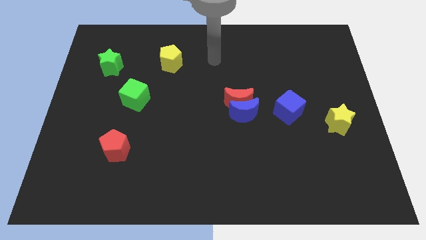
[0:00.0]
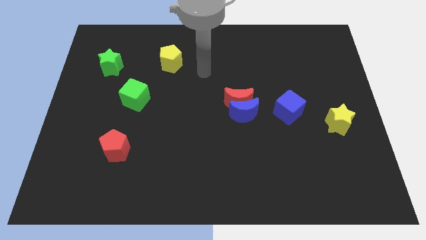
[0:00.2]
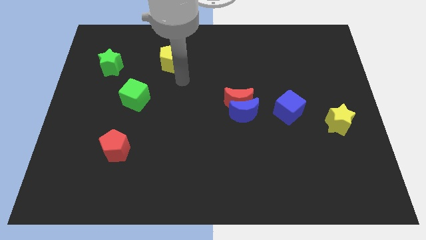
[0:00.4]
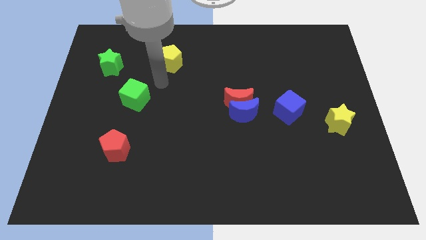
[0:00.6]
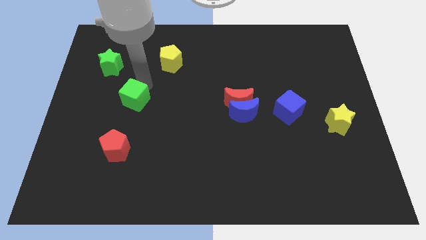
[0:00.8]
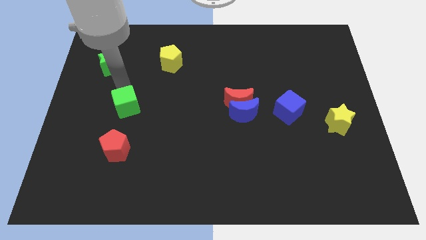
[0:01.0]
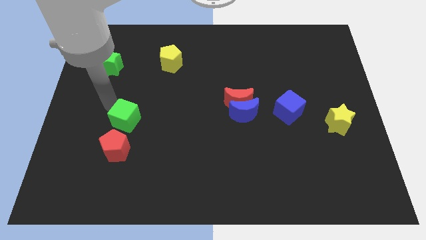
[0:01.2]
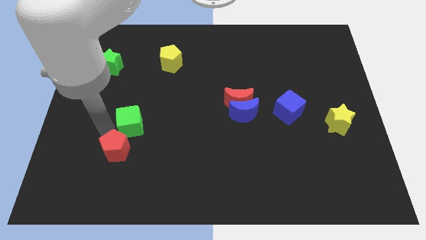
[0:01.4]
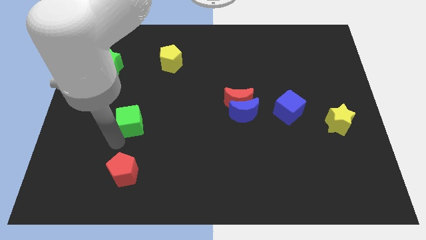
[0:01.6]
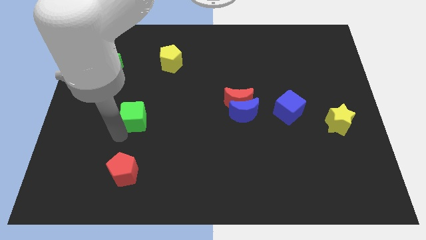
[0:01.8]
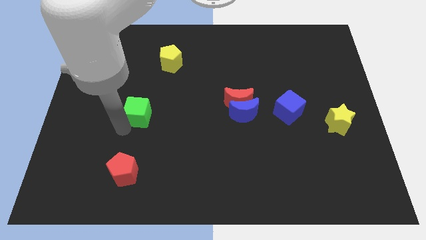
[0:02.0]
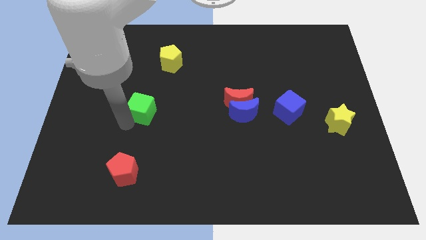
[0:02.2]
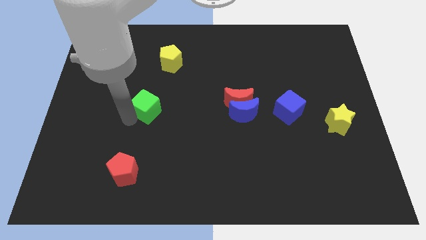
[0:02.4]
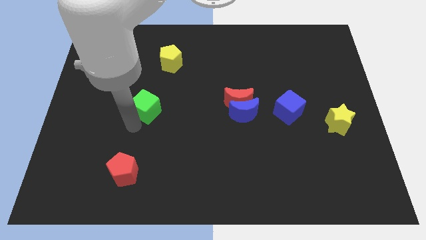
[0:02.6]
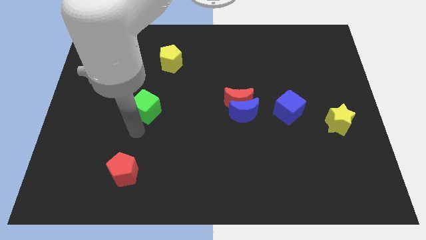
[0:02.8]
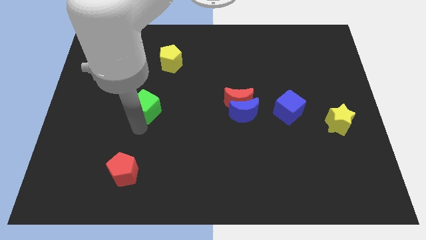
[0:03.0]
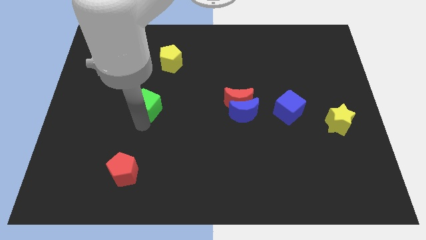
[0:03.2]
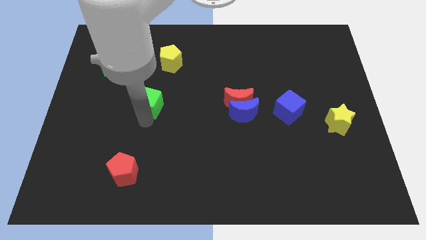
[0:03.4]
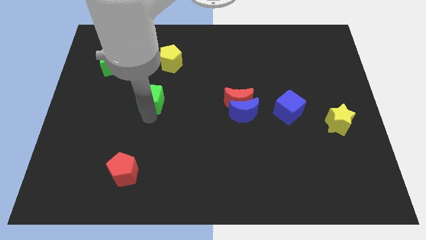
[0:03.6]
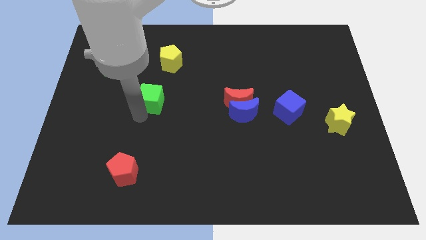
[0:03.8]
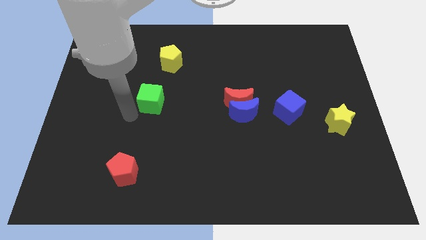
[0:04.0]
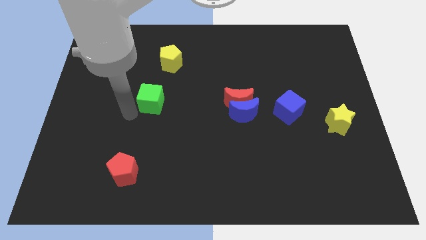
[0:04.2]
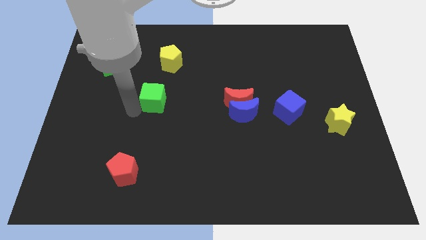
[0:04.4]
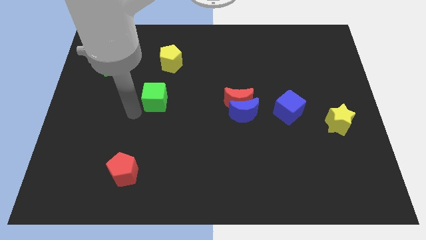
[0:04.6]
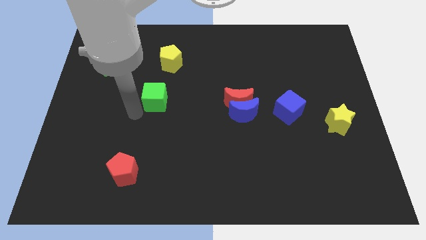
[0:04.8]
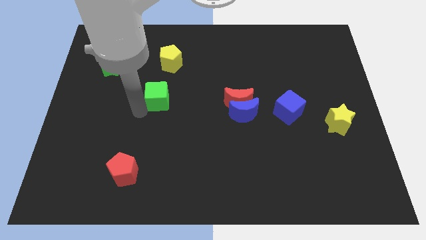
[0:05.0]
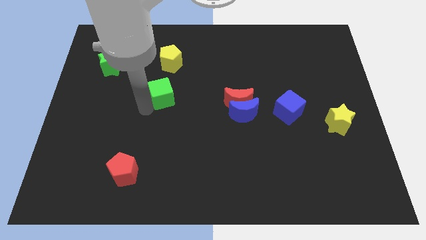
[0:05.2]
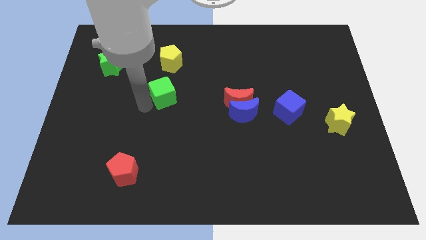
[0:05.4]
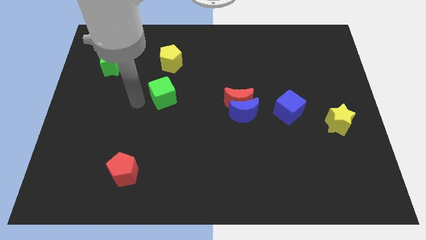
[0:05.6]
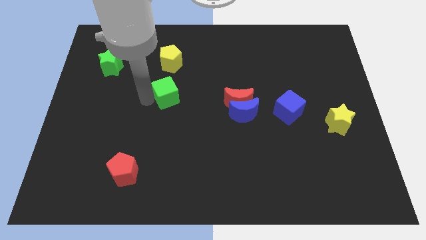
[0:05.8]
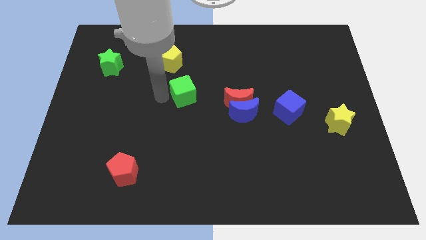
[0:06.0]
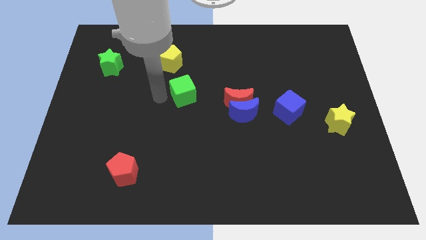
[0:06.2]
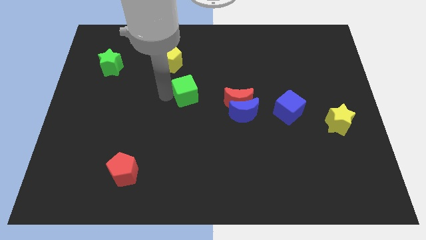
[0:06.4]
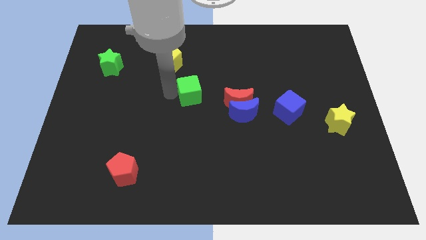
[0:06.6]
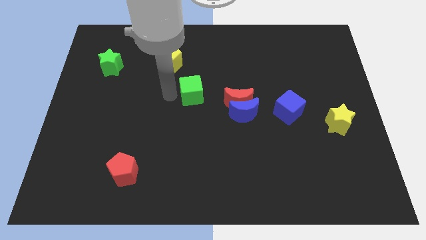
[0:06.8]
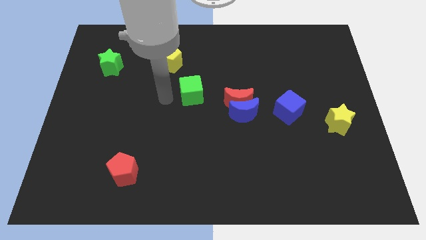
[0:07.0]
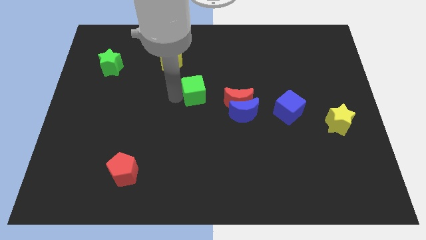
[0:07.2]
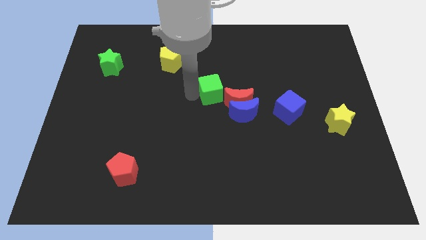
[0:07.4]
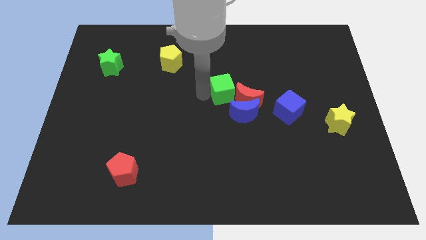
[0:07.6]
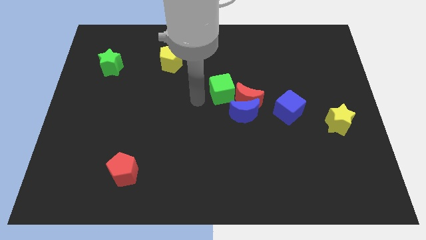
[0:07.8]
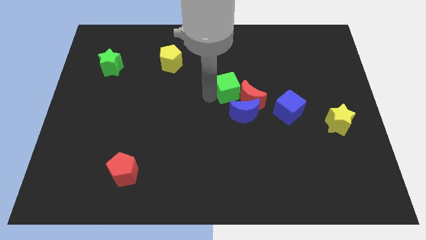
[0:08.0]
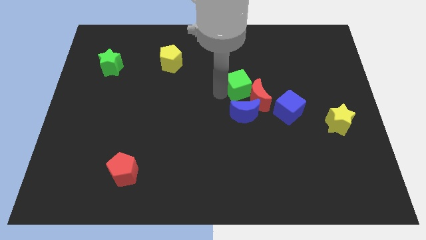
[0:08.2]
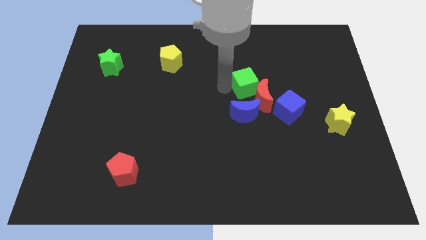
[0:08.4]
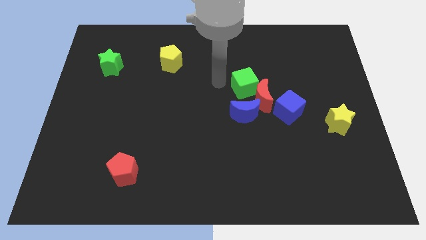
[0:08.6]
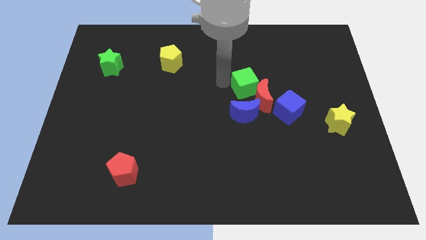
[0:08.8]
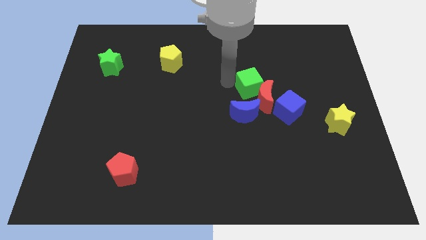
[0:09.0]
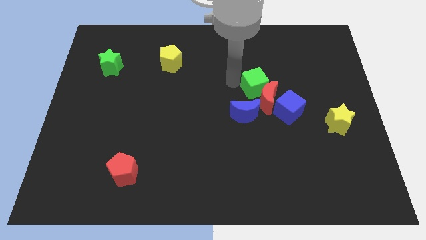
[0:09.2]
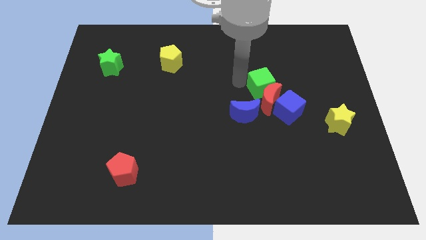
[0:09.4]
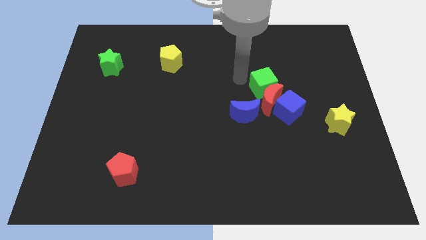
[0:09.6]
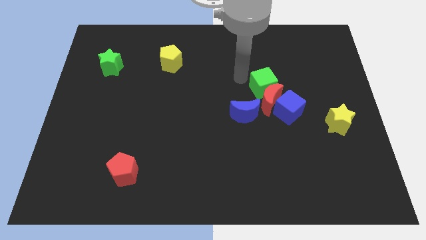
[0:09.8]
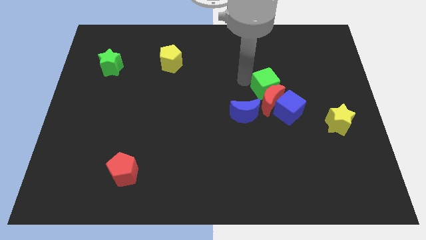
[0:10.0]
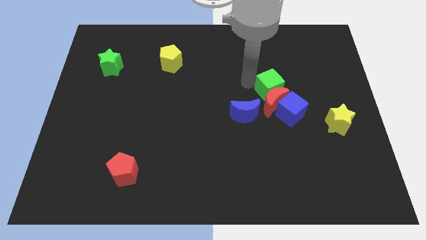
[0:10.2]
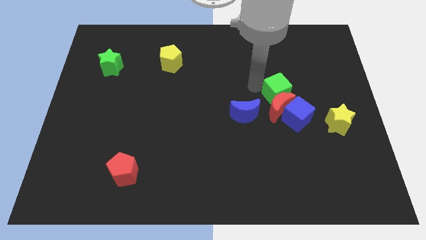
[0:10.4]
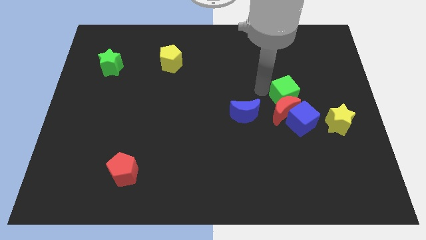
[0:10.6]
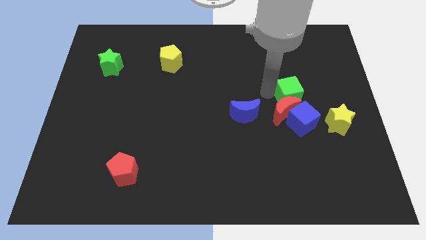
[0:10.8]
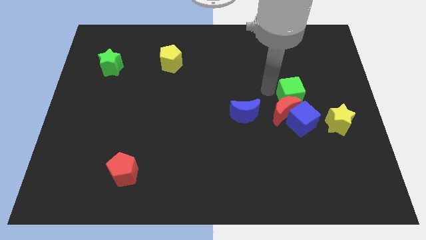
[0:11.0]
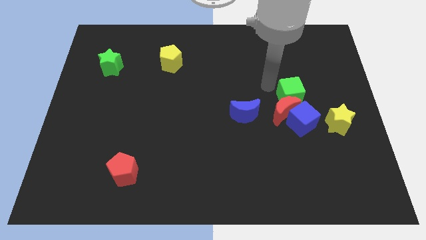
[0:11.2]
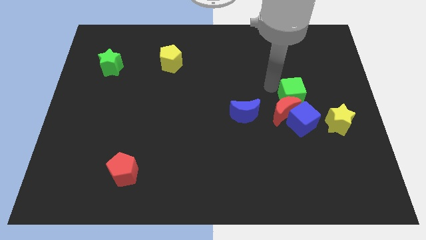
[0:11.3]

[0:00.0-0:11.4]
move the green cube diagonally up and to the left of the yellow star
